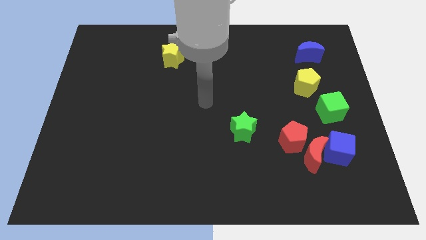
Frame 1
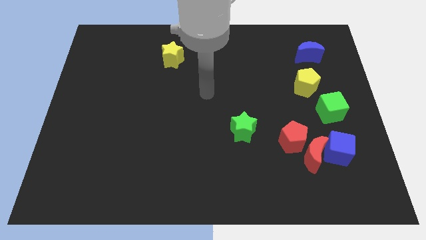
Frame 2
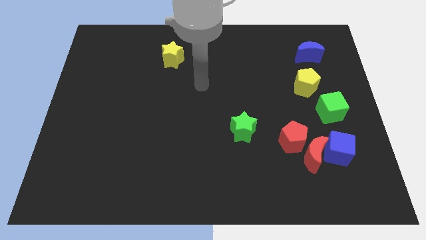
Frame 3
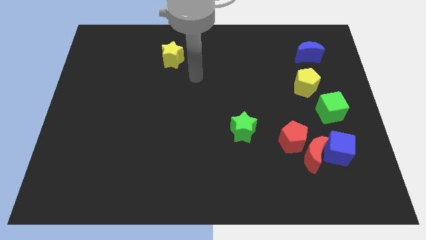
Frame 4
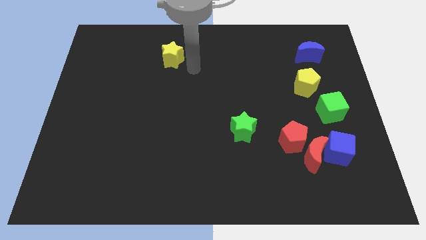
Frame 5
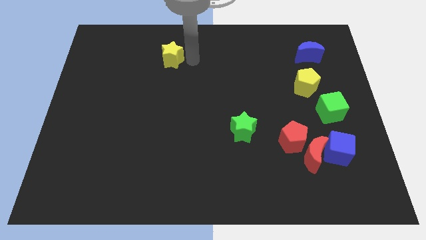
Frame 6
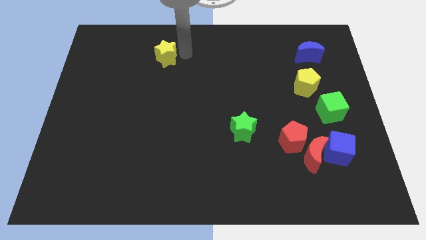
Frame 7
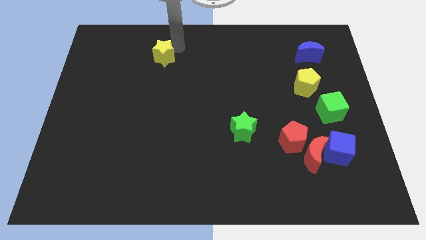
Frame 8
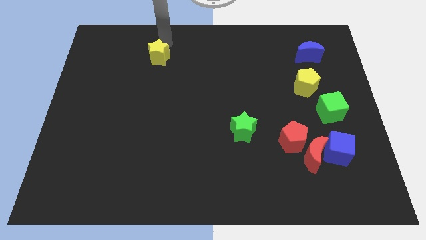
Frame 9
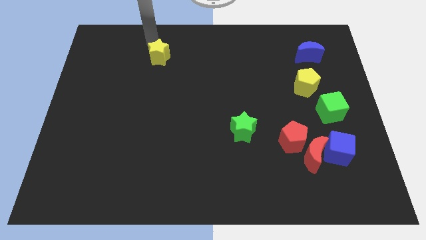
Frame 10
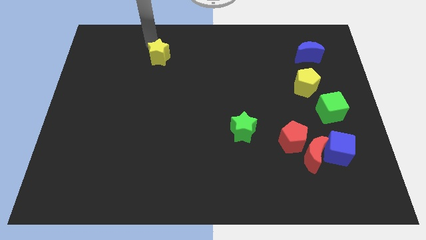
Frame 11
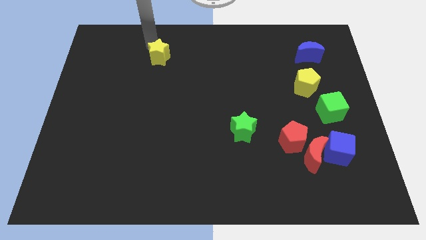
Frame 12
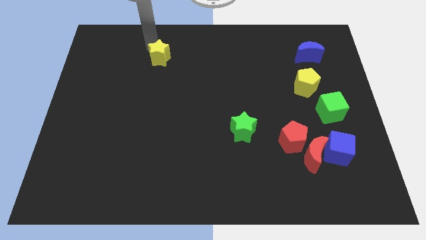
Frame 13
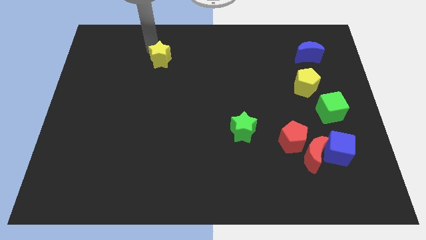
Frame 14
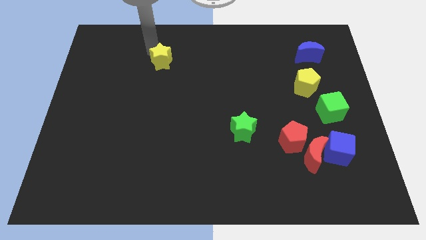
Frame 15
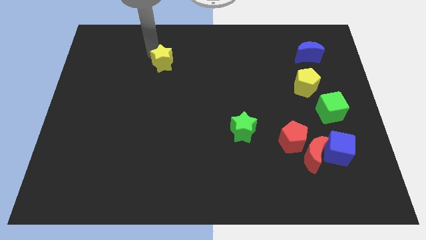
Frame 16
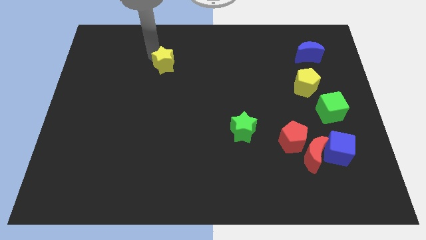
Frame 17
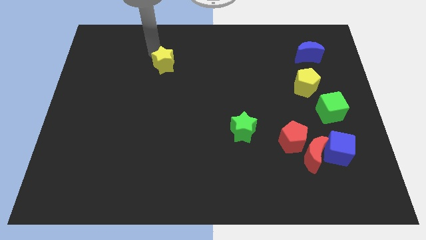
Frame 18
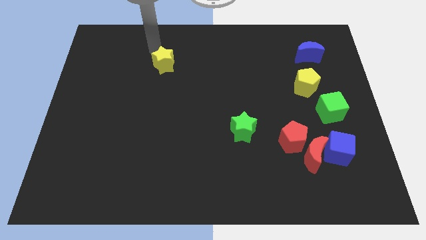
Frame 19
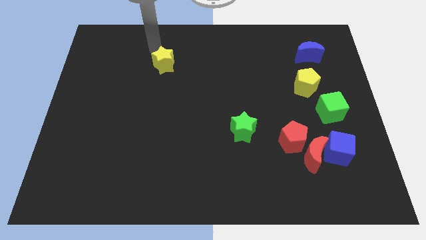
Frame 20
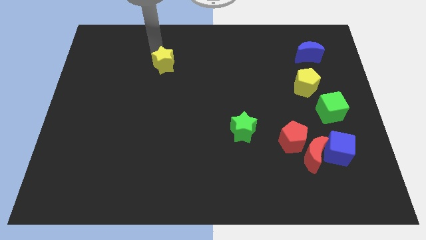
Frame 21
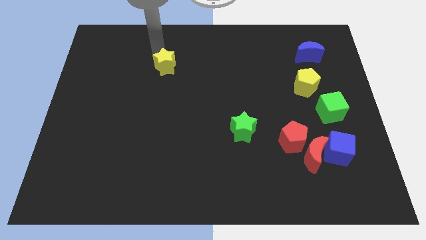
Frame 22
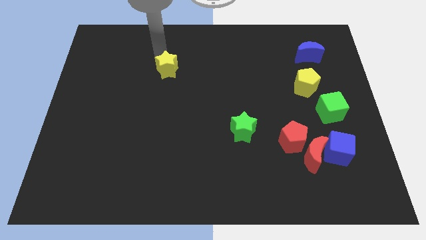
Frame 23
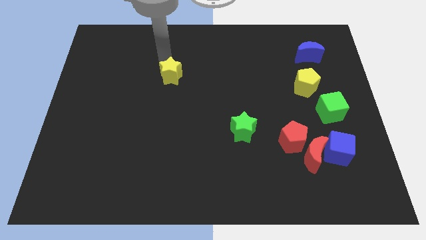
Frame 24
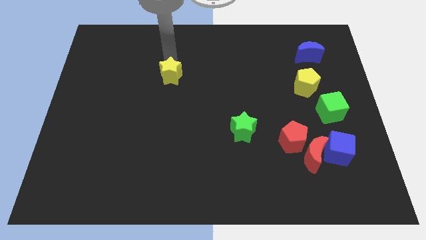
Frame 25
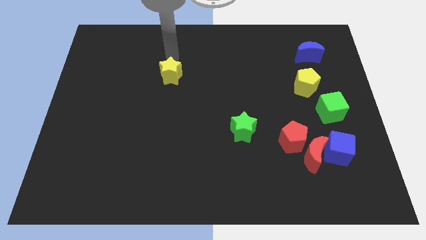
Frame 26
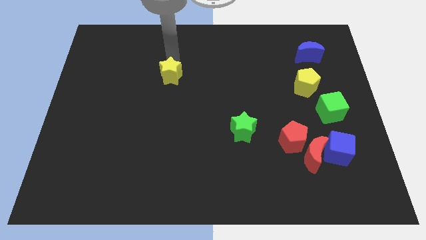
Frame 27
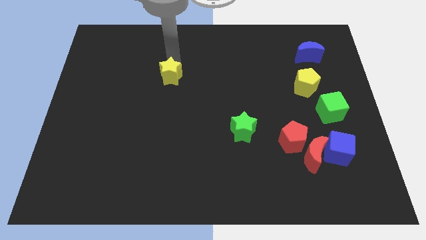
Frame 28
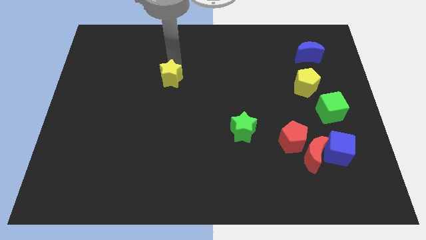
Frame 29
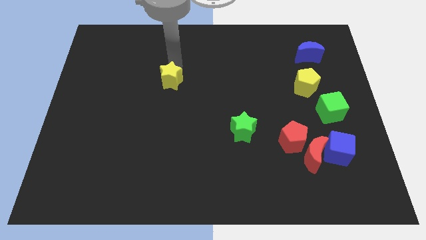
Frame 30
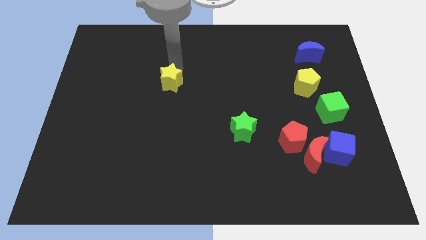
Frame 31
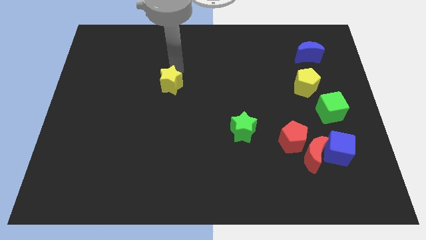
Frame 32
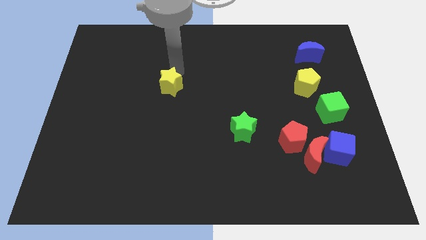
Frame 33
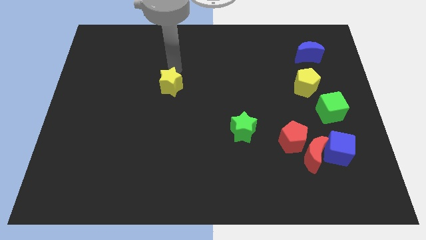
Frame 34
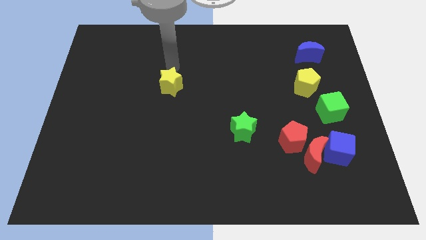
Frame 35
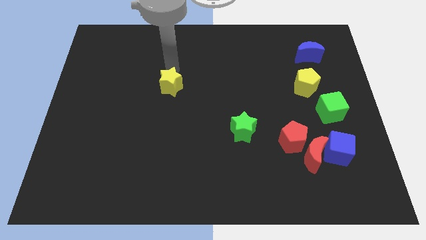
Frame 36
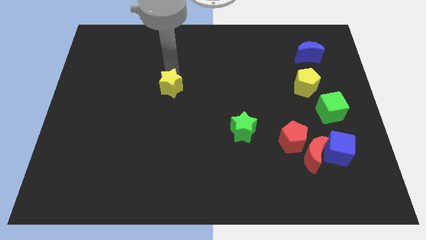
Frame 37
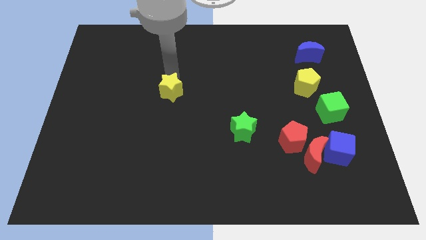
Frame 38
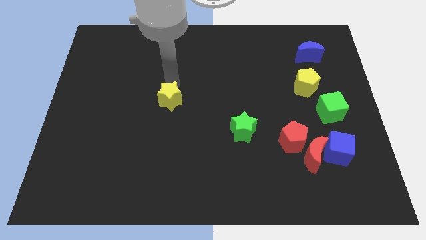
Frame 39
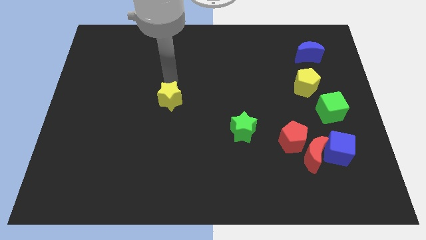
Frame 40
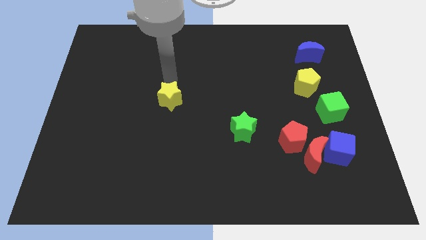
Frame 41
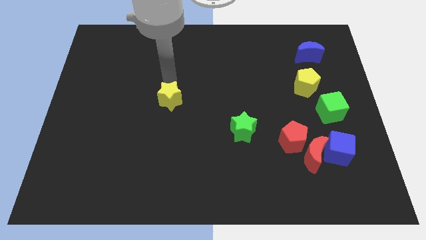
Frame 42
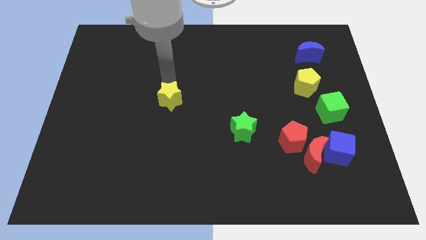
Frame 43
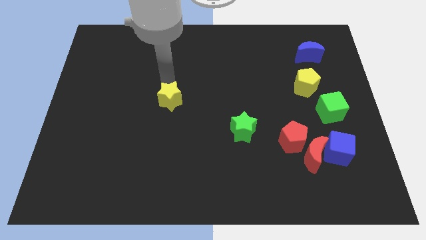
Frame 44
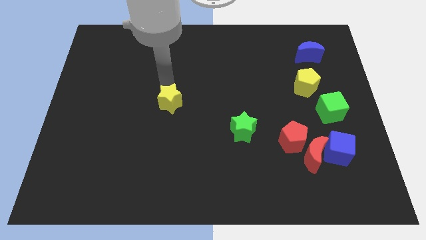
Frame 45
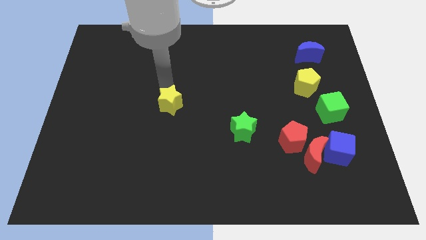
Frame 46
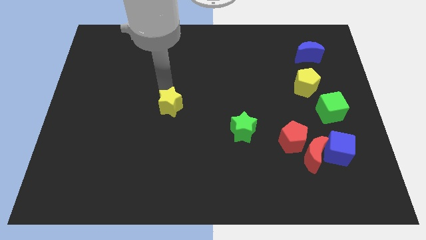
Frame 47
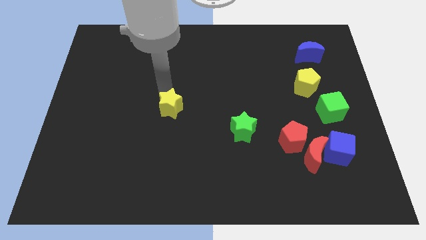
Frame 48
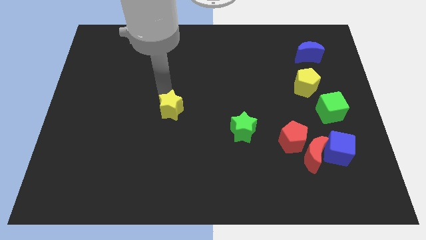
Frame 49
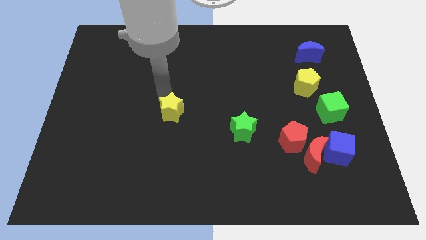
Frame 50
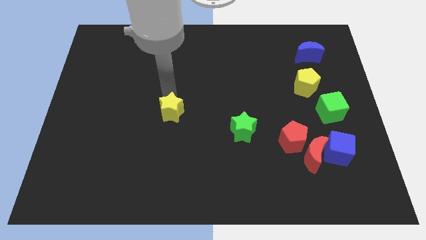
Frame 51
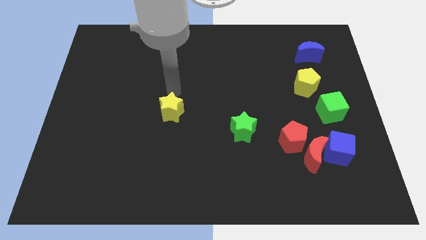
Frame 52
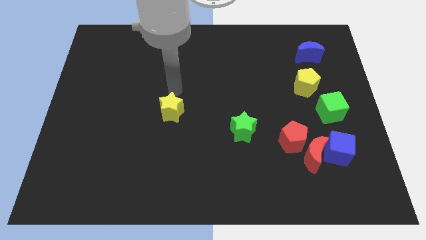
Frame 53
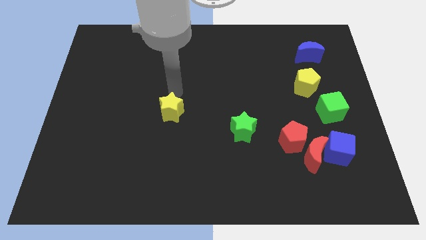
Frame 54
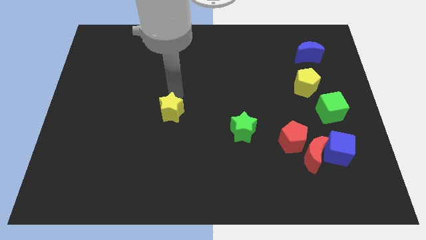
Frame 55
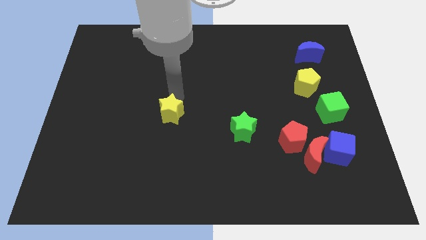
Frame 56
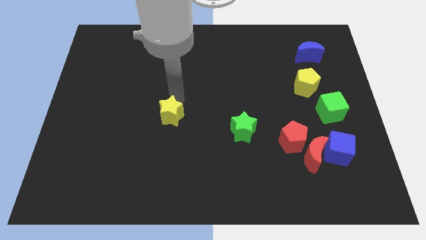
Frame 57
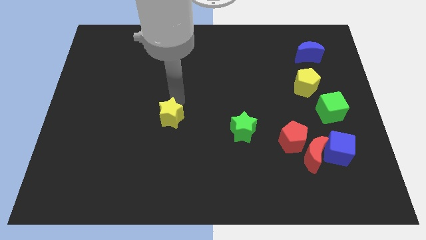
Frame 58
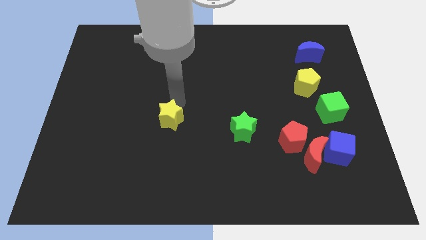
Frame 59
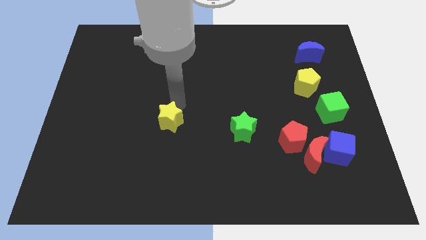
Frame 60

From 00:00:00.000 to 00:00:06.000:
move the yellow star down

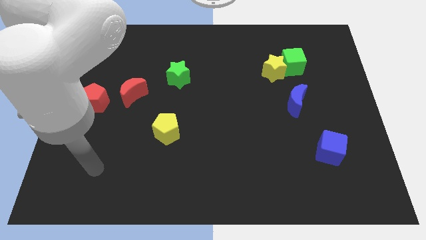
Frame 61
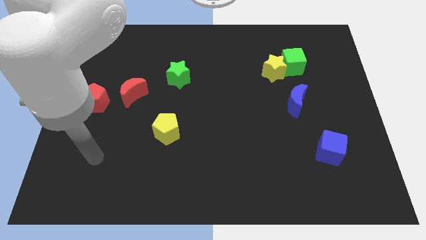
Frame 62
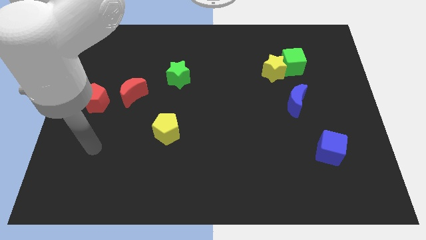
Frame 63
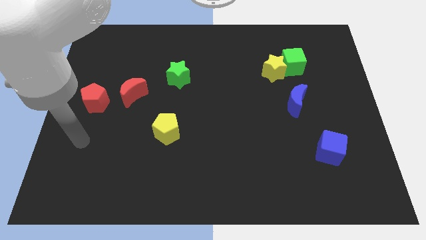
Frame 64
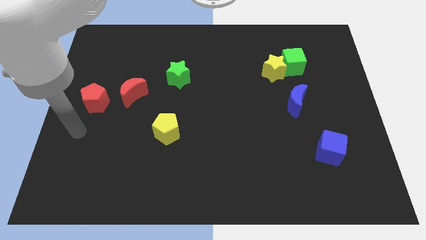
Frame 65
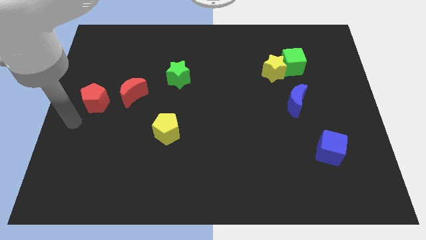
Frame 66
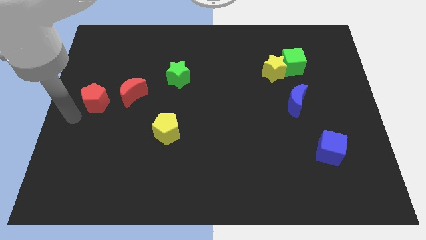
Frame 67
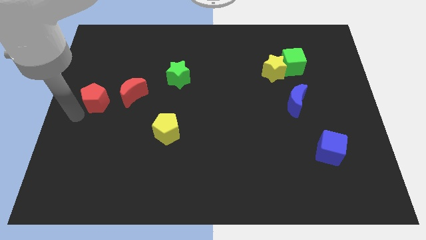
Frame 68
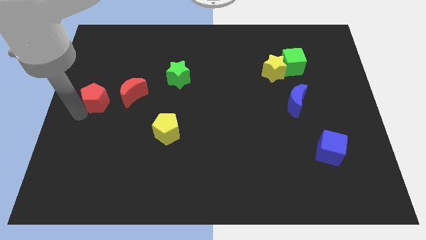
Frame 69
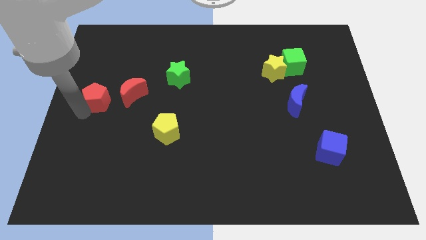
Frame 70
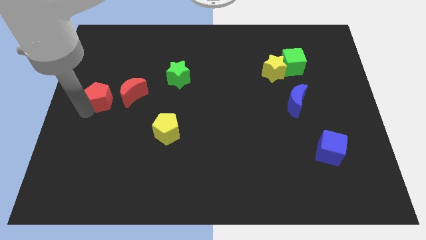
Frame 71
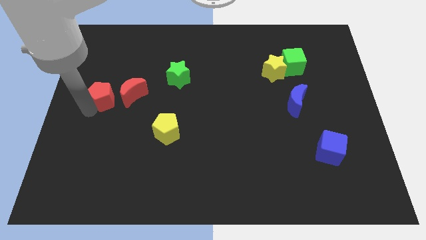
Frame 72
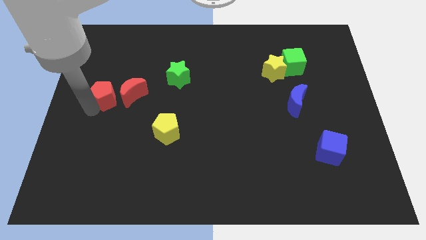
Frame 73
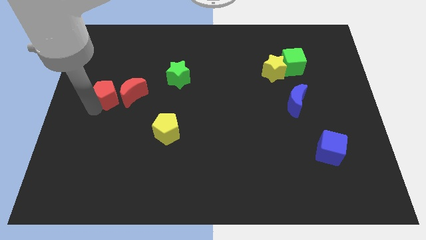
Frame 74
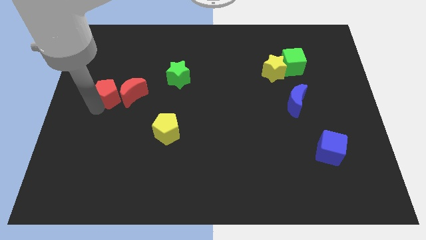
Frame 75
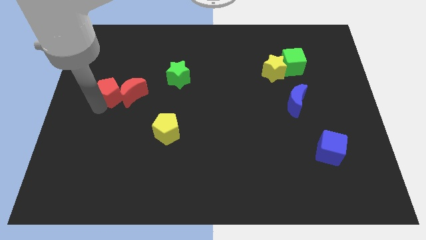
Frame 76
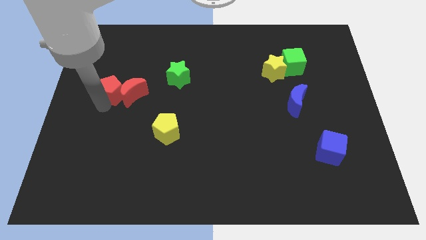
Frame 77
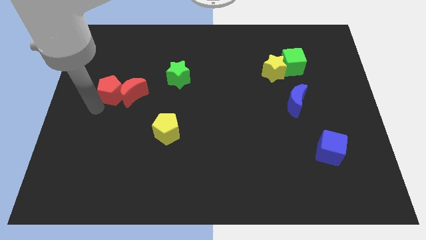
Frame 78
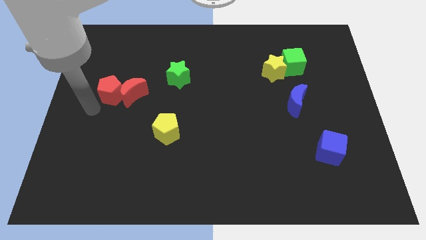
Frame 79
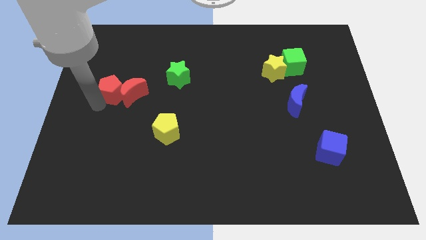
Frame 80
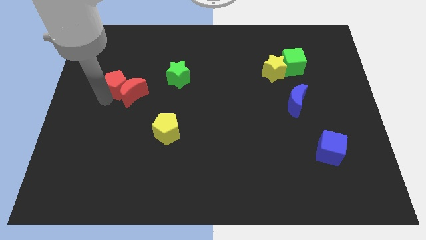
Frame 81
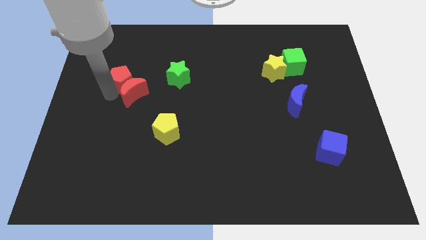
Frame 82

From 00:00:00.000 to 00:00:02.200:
push the red pentagon a little bit upwards and to the right
